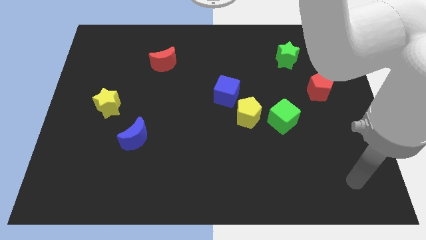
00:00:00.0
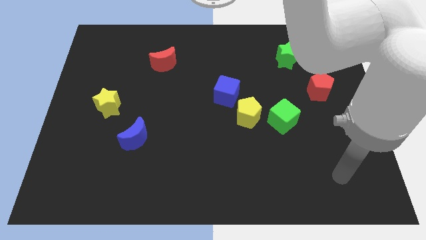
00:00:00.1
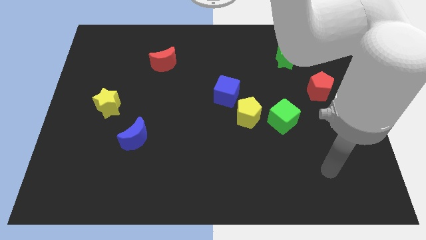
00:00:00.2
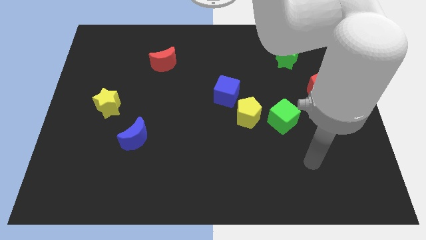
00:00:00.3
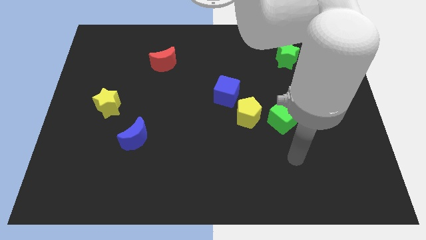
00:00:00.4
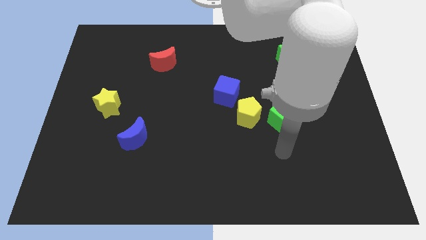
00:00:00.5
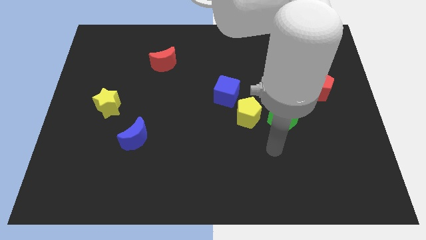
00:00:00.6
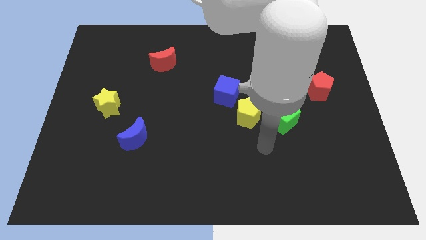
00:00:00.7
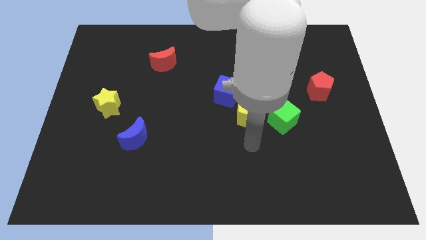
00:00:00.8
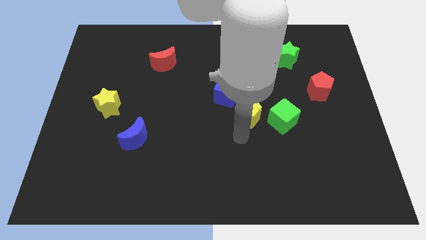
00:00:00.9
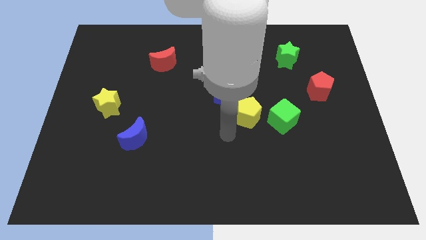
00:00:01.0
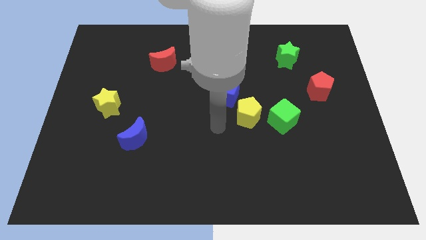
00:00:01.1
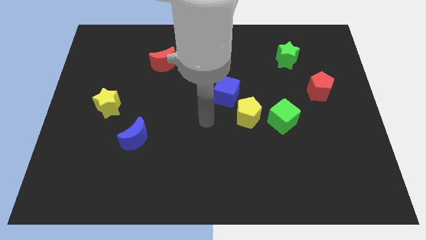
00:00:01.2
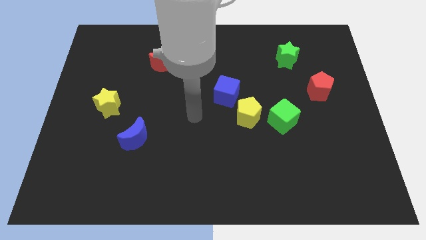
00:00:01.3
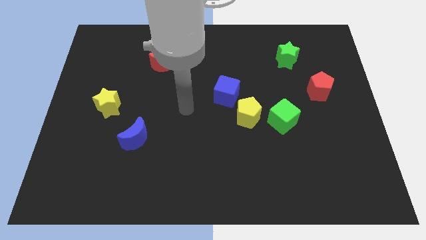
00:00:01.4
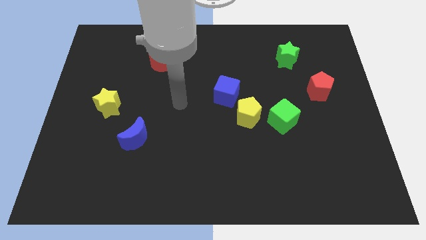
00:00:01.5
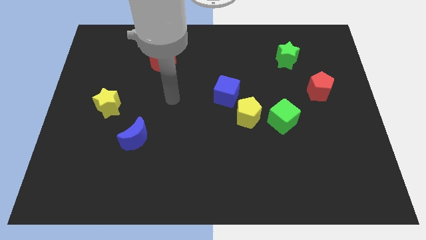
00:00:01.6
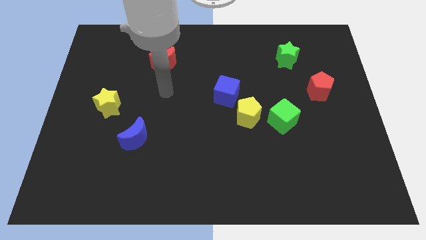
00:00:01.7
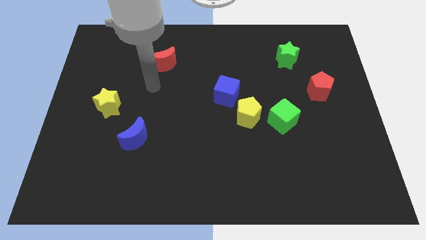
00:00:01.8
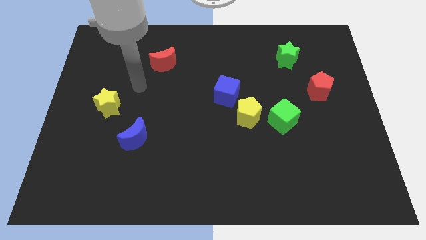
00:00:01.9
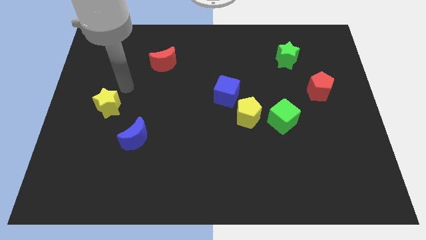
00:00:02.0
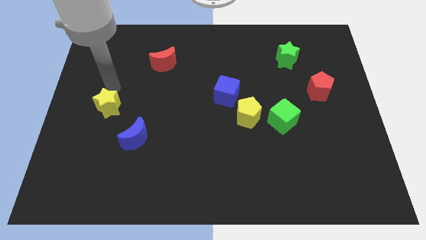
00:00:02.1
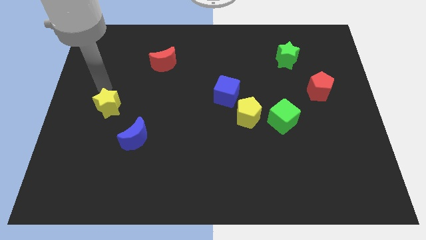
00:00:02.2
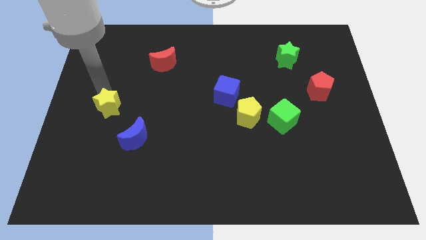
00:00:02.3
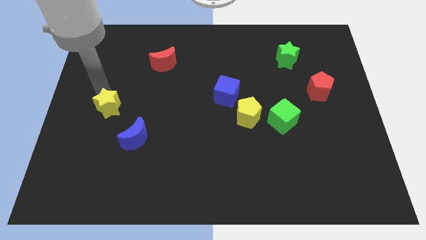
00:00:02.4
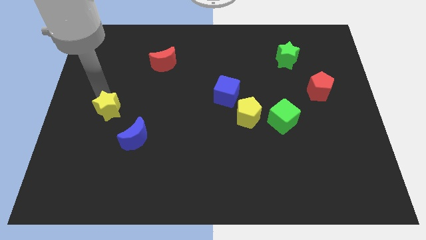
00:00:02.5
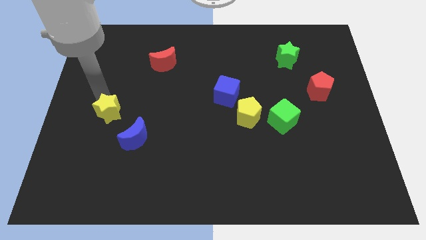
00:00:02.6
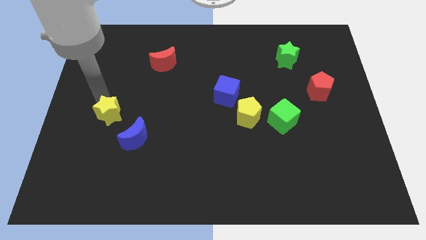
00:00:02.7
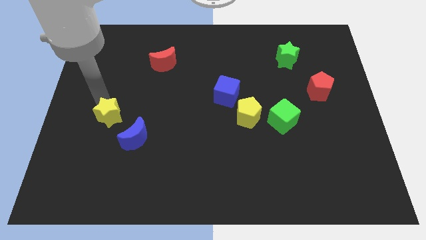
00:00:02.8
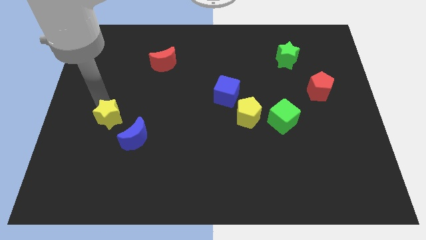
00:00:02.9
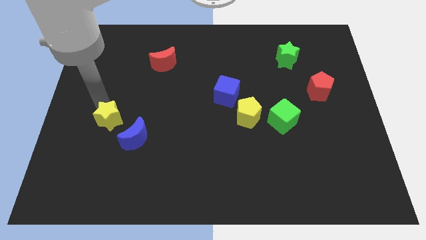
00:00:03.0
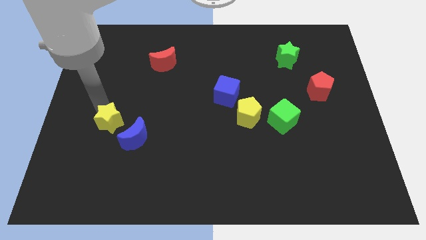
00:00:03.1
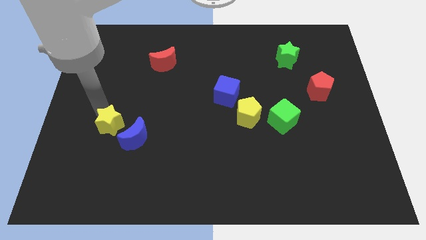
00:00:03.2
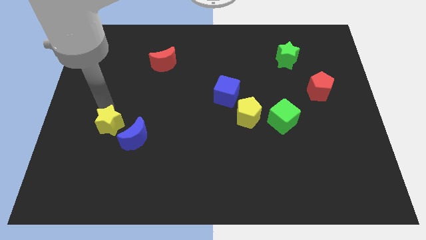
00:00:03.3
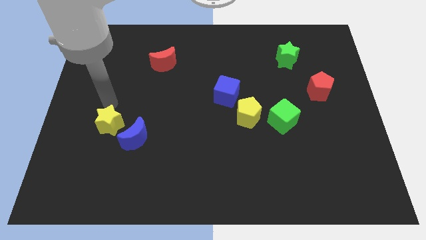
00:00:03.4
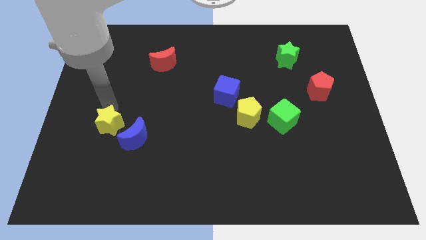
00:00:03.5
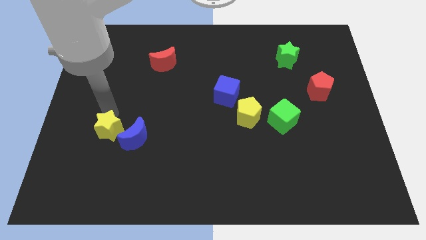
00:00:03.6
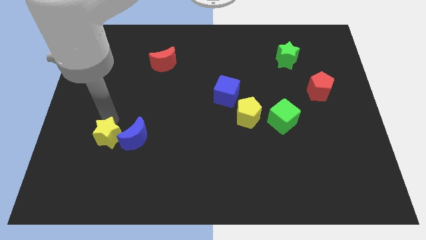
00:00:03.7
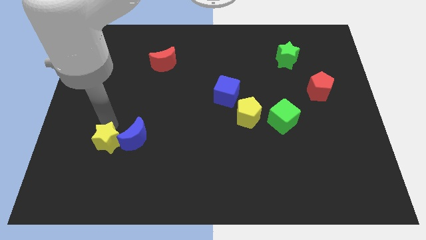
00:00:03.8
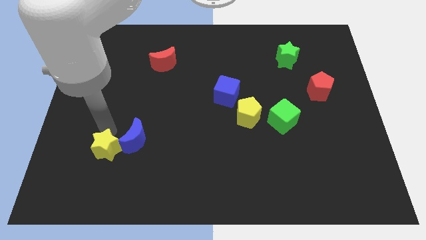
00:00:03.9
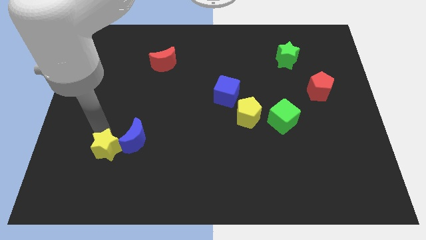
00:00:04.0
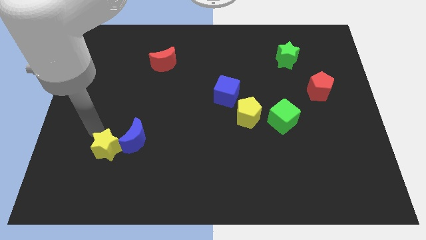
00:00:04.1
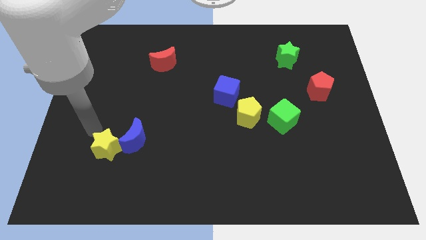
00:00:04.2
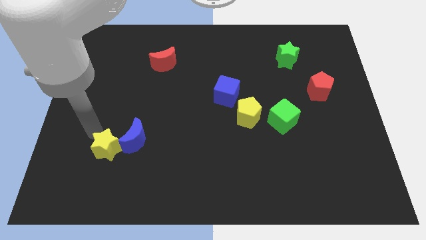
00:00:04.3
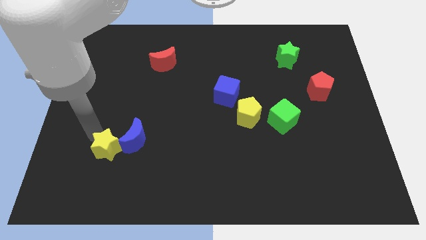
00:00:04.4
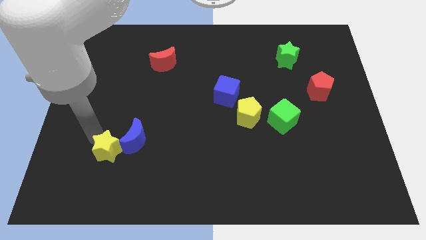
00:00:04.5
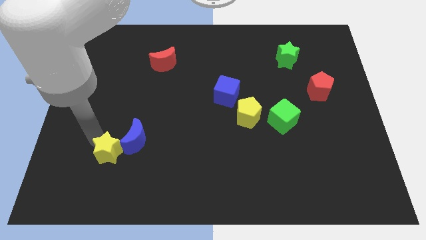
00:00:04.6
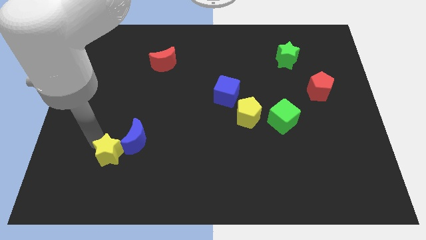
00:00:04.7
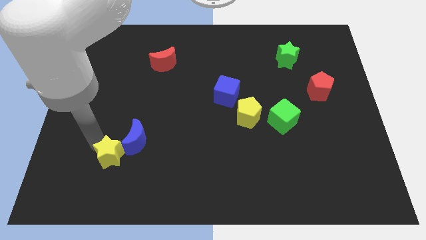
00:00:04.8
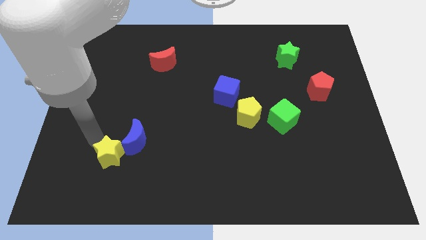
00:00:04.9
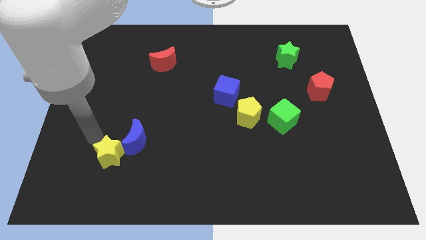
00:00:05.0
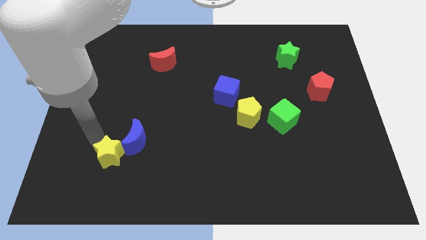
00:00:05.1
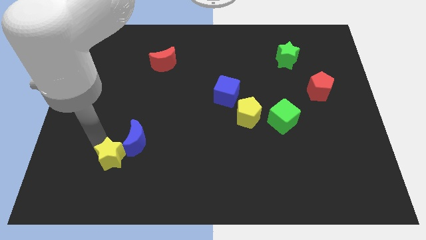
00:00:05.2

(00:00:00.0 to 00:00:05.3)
slide the yellow star to the bottom side of the blue moon

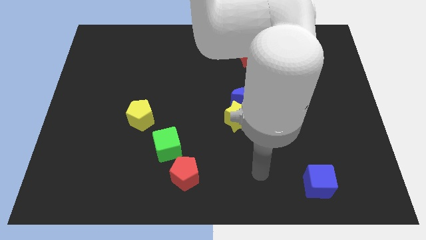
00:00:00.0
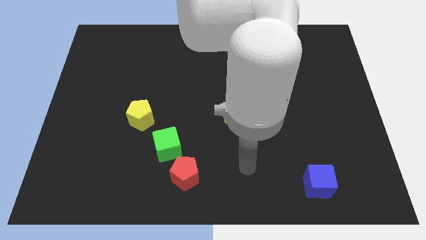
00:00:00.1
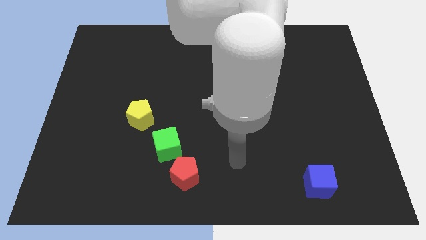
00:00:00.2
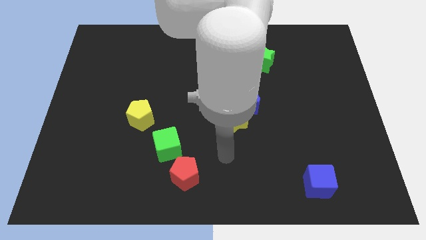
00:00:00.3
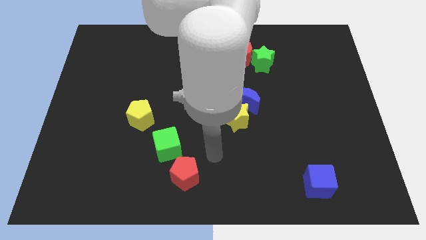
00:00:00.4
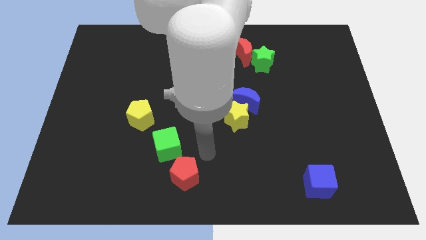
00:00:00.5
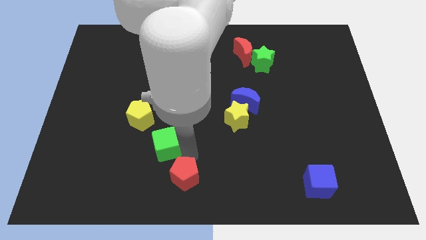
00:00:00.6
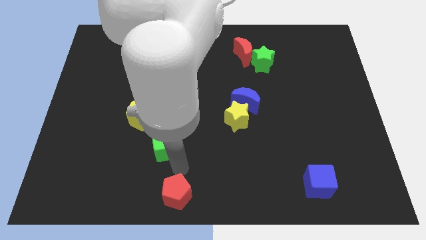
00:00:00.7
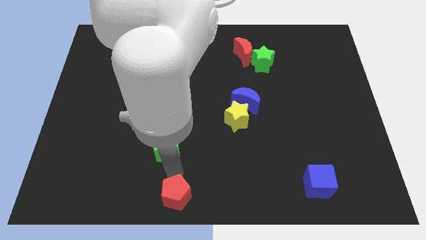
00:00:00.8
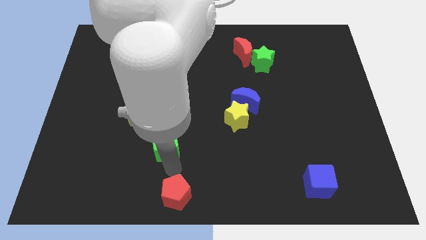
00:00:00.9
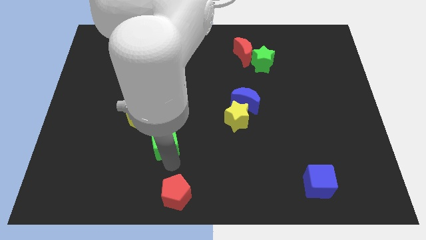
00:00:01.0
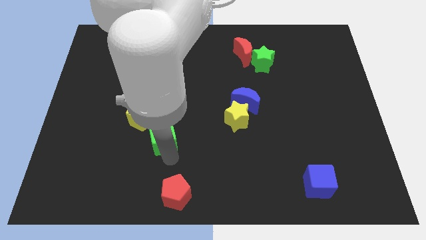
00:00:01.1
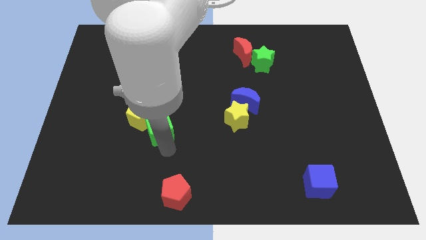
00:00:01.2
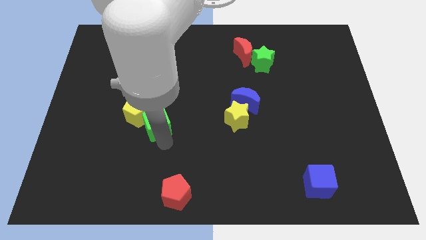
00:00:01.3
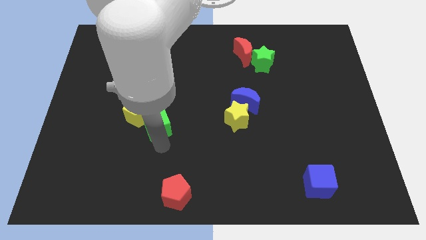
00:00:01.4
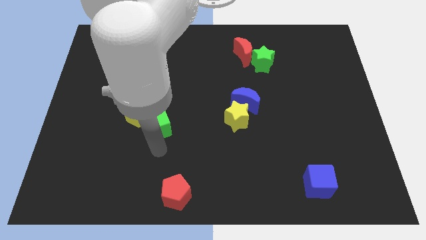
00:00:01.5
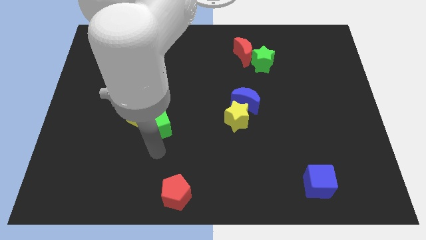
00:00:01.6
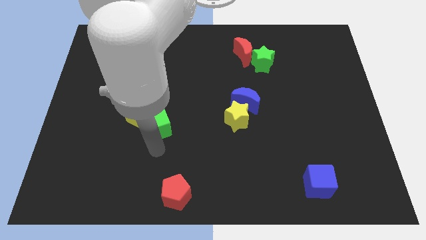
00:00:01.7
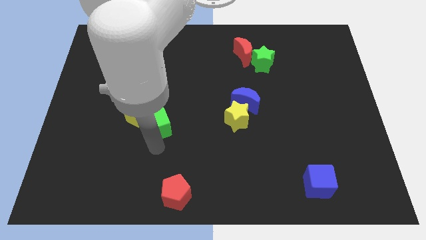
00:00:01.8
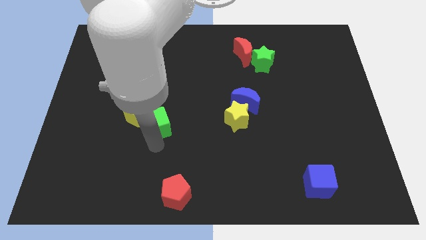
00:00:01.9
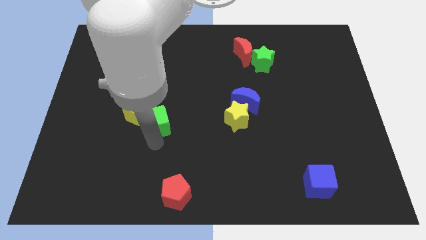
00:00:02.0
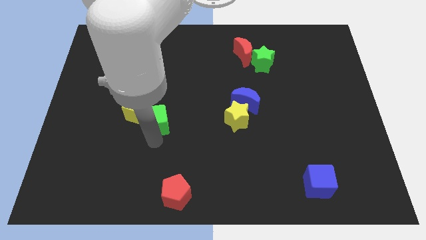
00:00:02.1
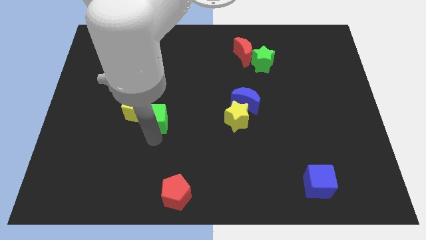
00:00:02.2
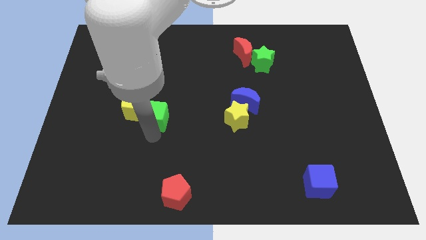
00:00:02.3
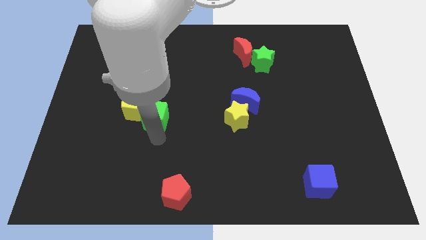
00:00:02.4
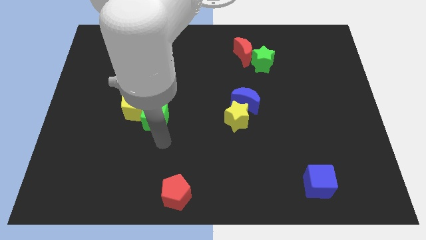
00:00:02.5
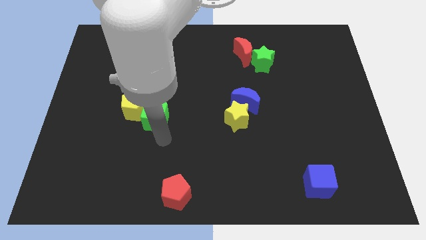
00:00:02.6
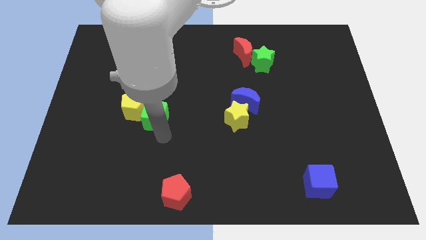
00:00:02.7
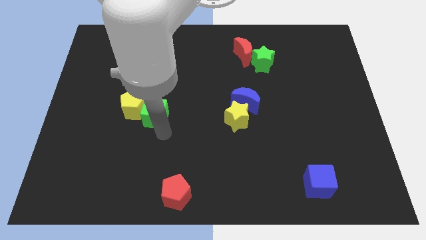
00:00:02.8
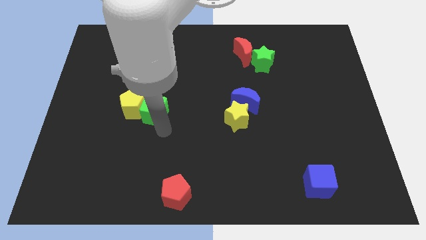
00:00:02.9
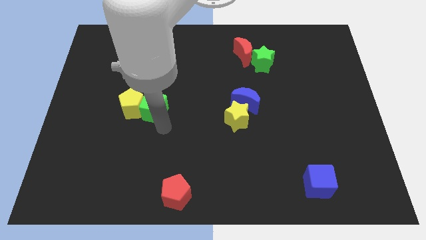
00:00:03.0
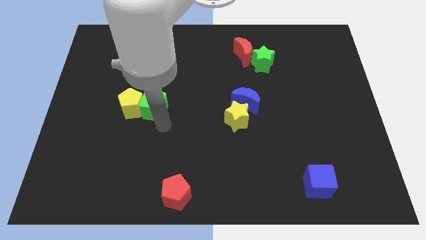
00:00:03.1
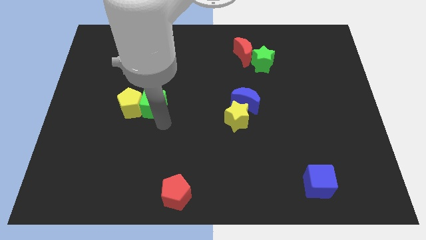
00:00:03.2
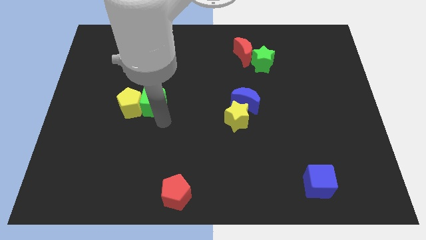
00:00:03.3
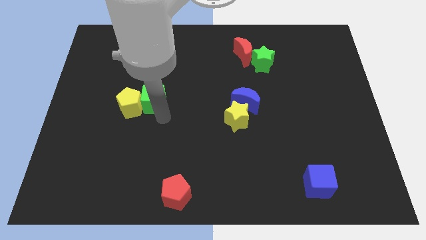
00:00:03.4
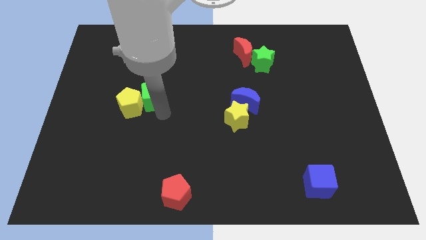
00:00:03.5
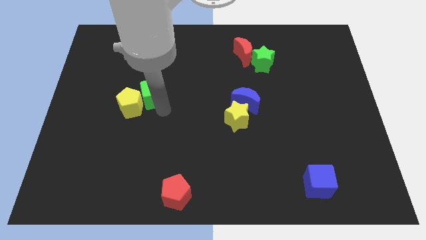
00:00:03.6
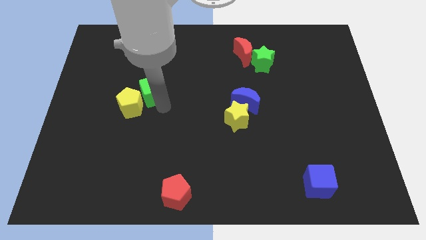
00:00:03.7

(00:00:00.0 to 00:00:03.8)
slide the green cube to the top of the yellow pentagon
